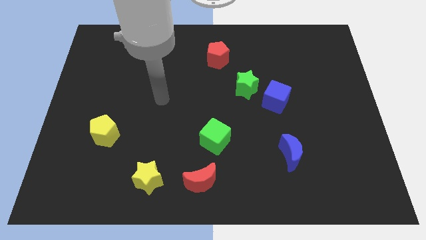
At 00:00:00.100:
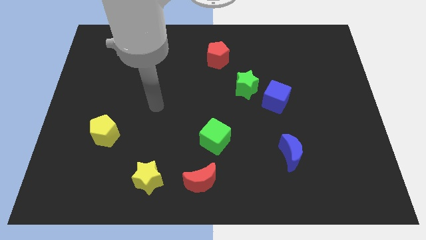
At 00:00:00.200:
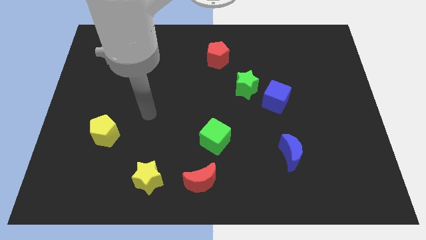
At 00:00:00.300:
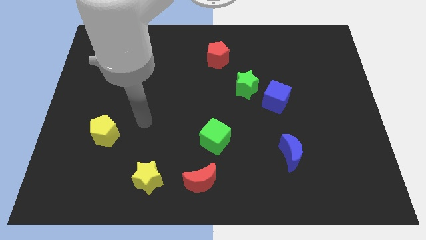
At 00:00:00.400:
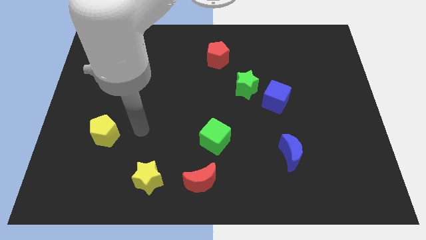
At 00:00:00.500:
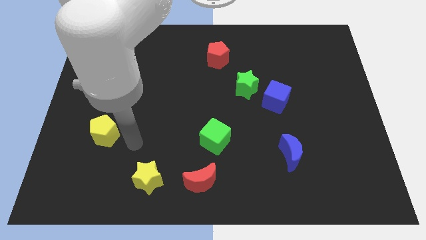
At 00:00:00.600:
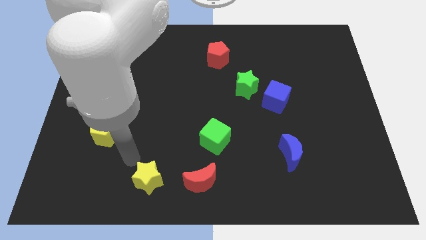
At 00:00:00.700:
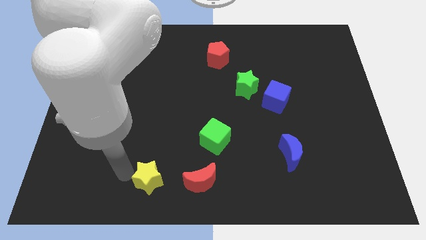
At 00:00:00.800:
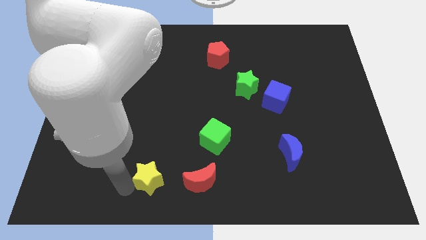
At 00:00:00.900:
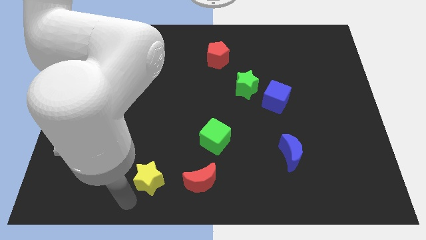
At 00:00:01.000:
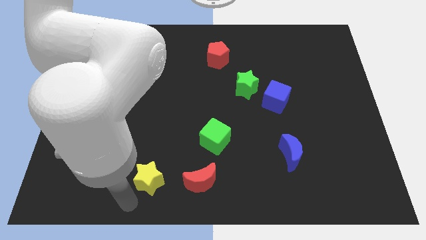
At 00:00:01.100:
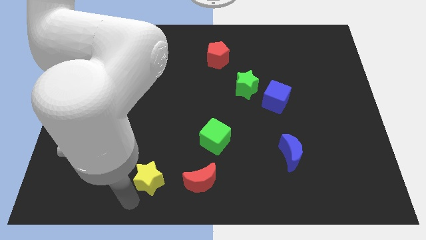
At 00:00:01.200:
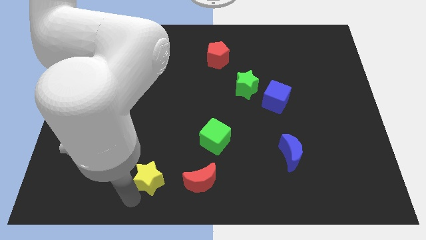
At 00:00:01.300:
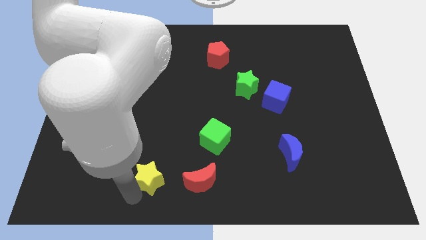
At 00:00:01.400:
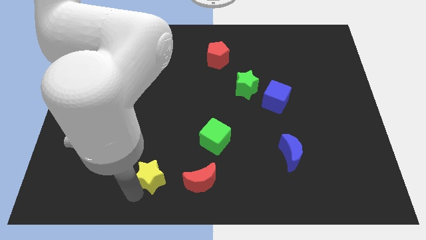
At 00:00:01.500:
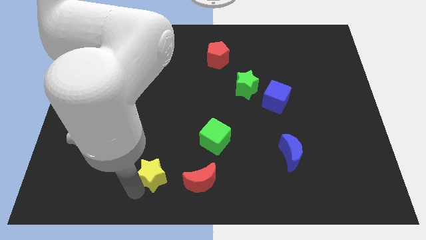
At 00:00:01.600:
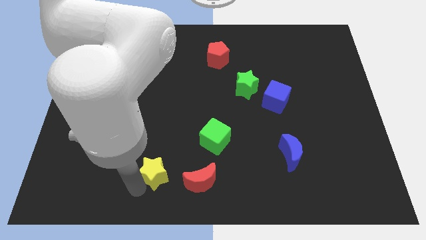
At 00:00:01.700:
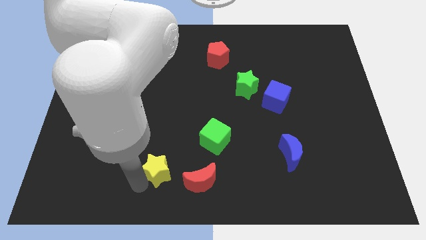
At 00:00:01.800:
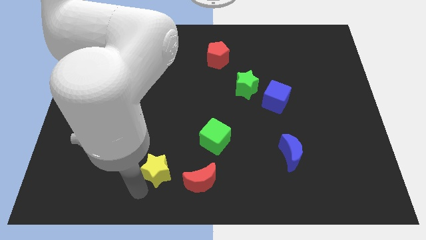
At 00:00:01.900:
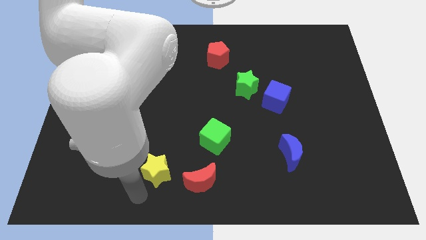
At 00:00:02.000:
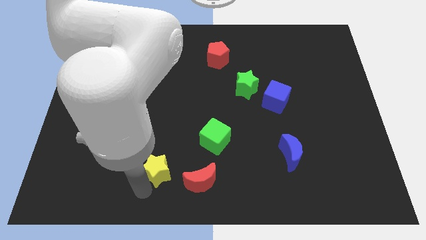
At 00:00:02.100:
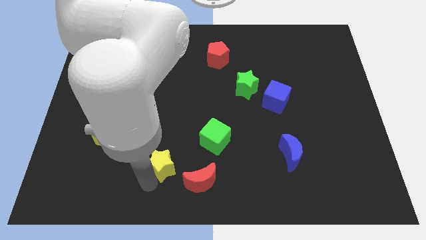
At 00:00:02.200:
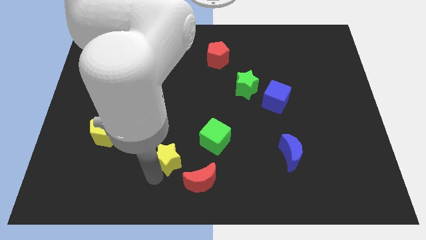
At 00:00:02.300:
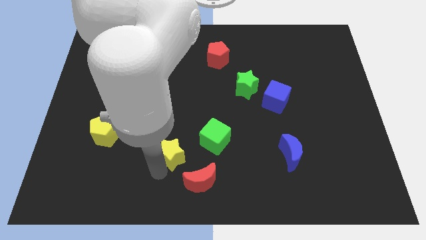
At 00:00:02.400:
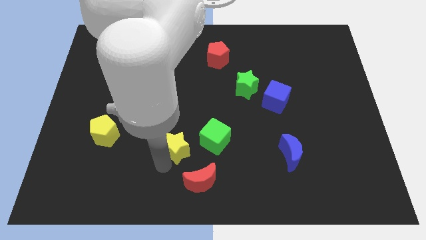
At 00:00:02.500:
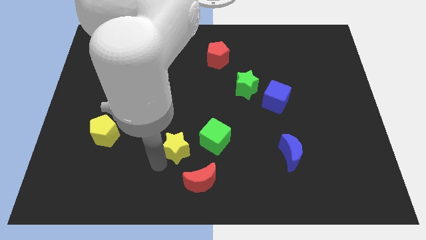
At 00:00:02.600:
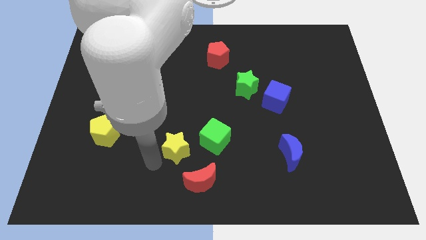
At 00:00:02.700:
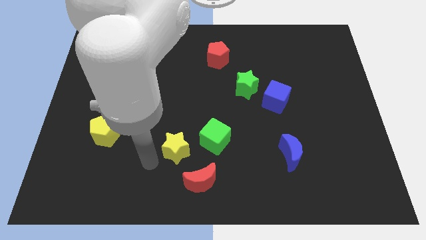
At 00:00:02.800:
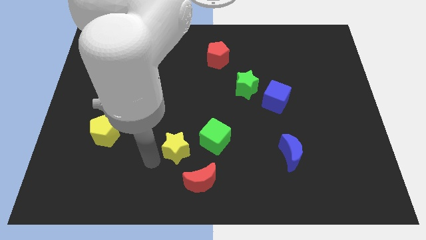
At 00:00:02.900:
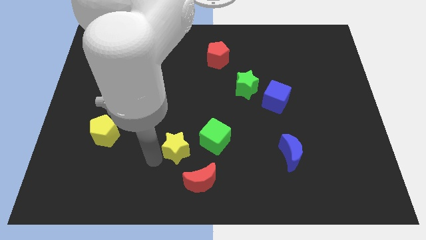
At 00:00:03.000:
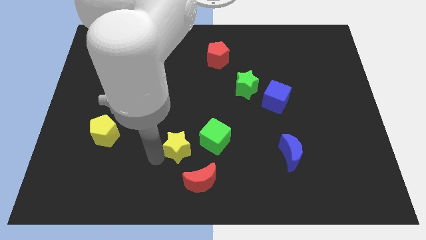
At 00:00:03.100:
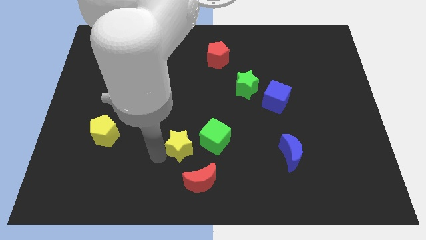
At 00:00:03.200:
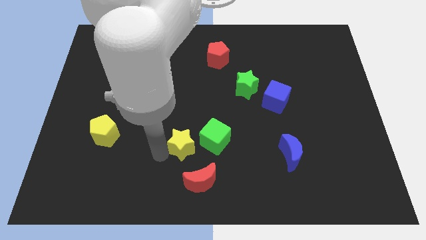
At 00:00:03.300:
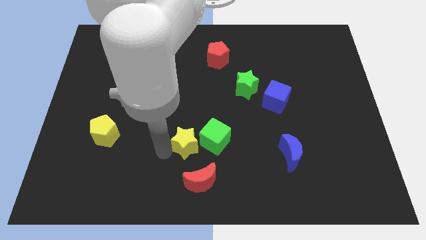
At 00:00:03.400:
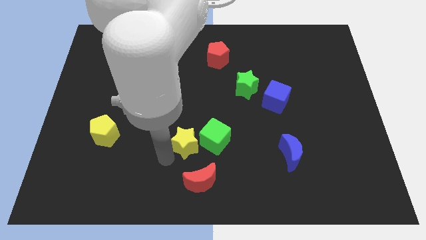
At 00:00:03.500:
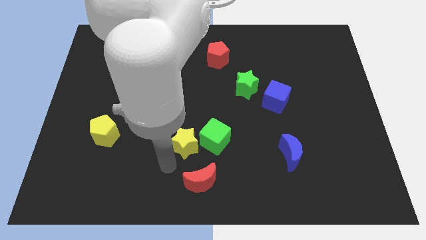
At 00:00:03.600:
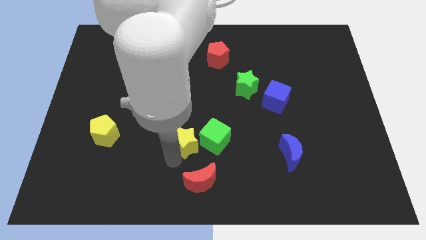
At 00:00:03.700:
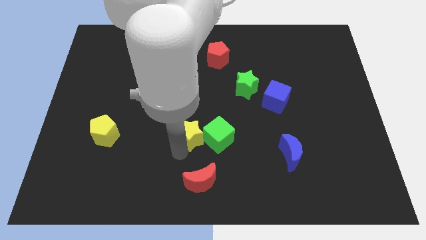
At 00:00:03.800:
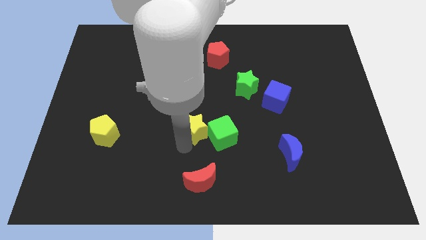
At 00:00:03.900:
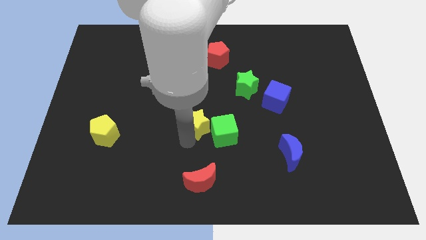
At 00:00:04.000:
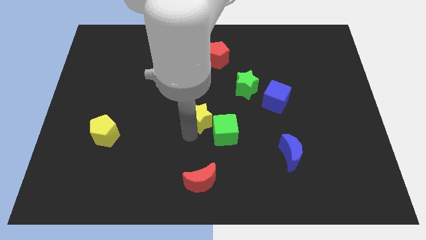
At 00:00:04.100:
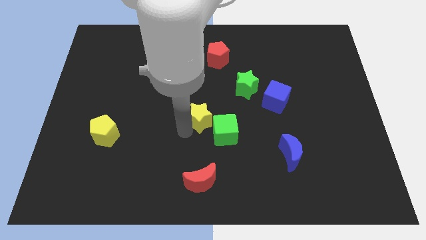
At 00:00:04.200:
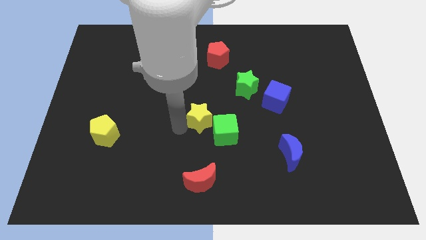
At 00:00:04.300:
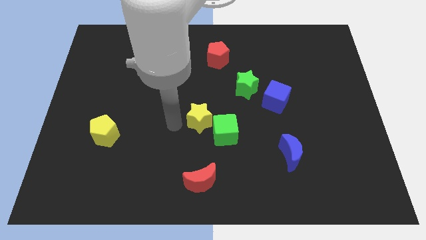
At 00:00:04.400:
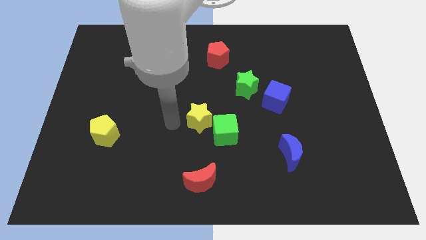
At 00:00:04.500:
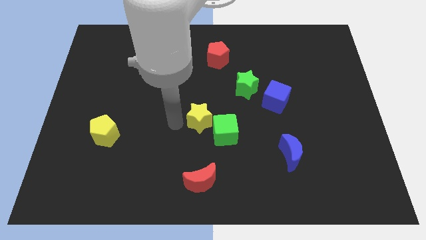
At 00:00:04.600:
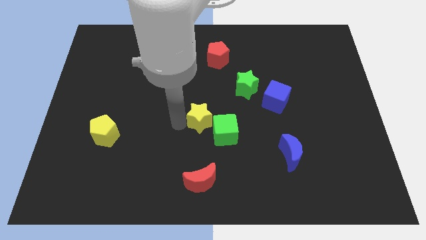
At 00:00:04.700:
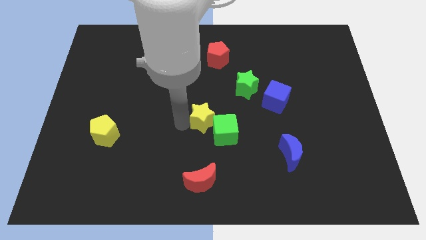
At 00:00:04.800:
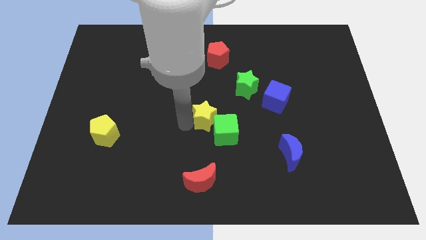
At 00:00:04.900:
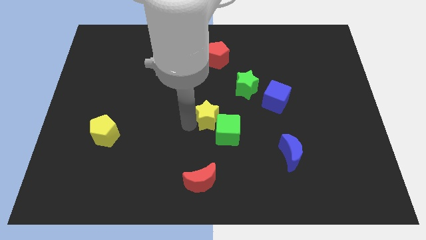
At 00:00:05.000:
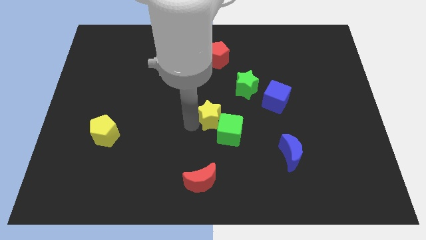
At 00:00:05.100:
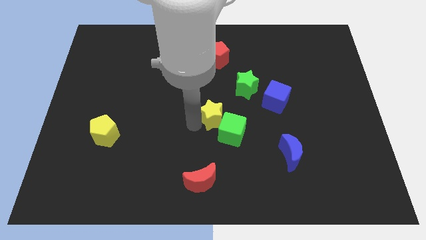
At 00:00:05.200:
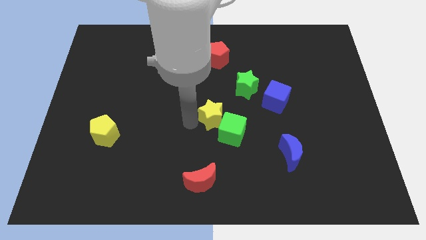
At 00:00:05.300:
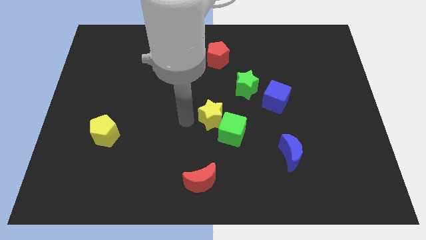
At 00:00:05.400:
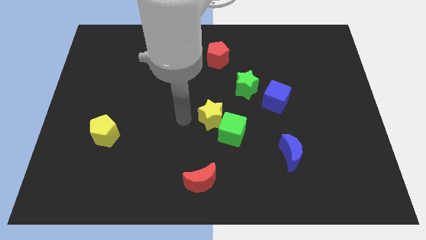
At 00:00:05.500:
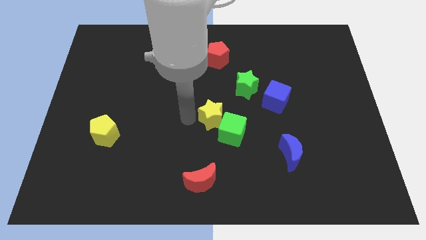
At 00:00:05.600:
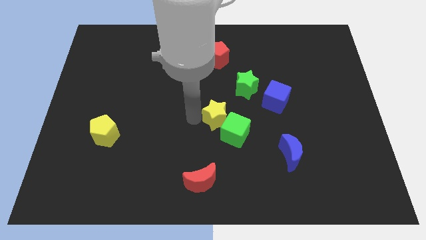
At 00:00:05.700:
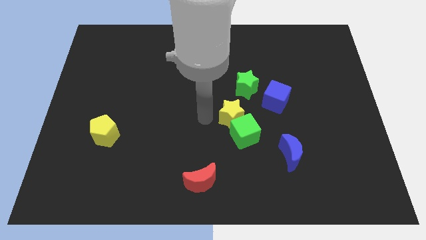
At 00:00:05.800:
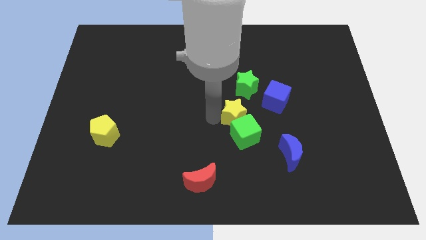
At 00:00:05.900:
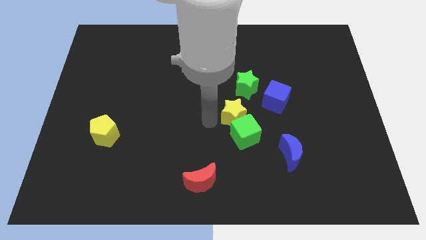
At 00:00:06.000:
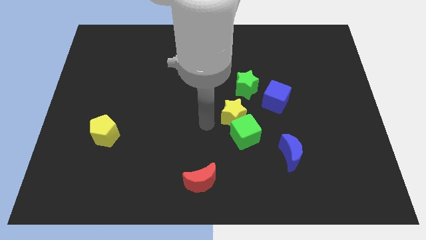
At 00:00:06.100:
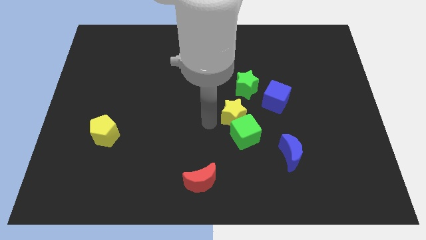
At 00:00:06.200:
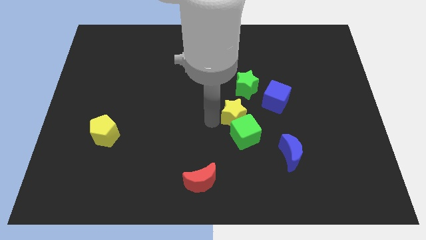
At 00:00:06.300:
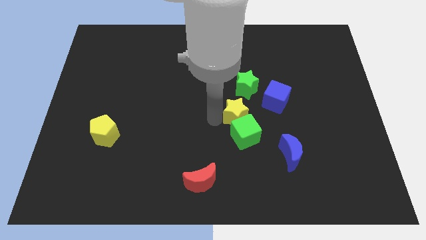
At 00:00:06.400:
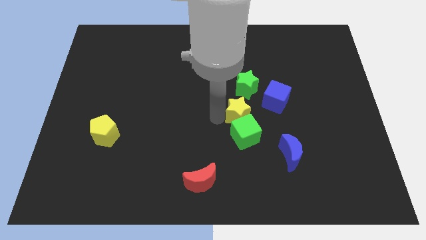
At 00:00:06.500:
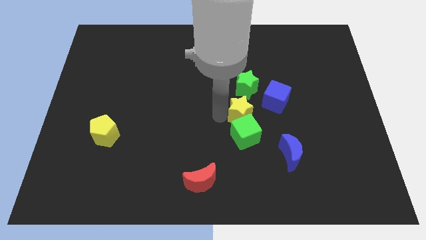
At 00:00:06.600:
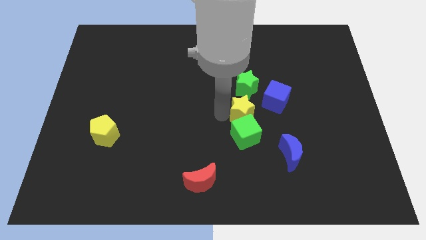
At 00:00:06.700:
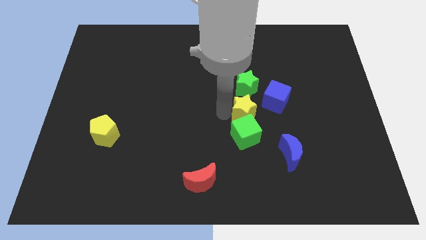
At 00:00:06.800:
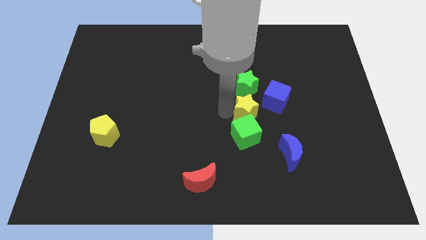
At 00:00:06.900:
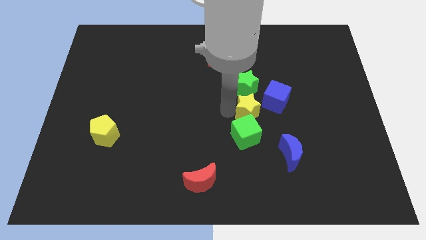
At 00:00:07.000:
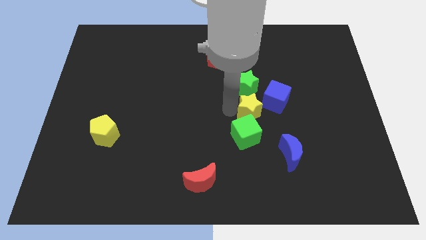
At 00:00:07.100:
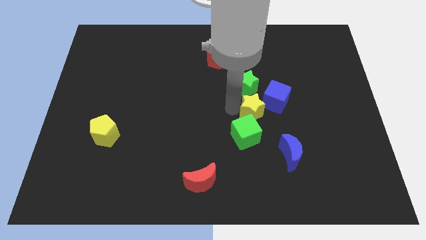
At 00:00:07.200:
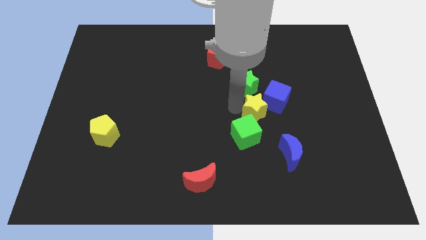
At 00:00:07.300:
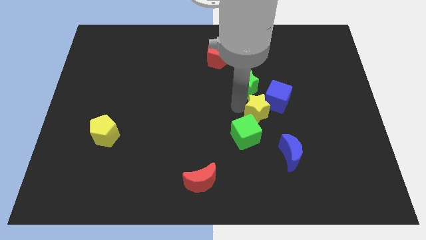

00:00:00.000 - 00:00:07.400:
slide the yellow star close to the blue cube
